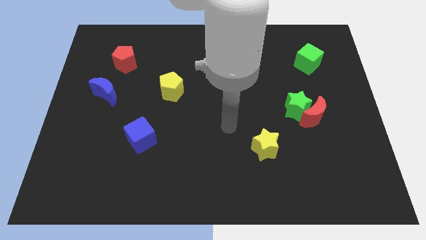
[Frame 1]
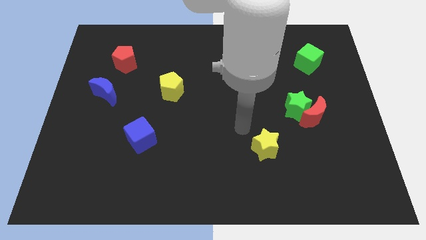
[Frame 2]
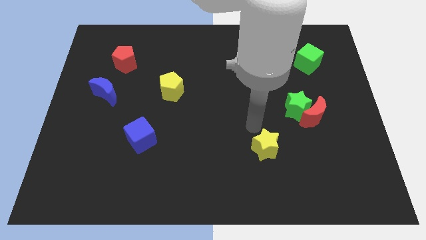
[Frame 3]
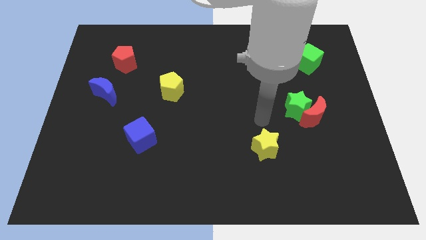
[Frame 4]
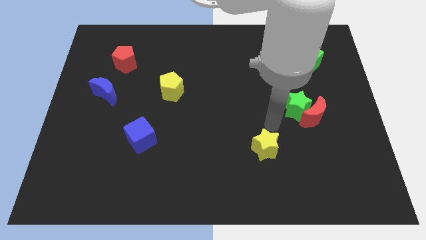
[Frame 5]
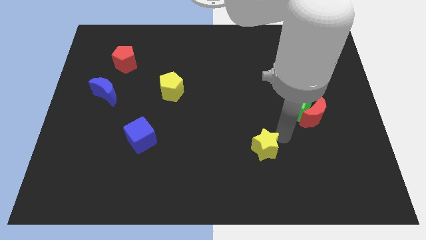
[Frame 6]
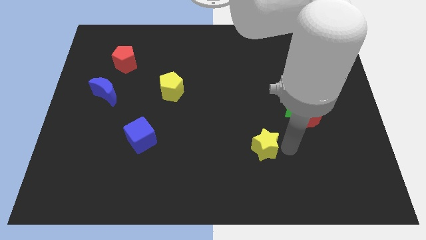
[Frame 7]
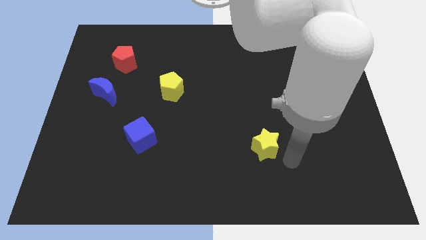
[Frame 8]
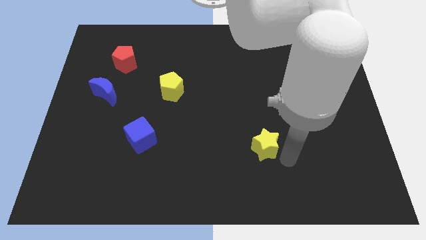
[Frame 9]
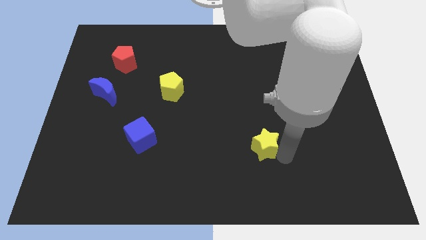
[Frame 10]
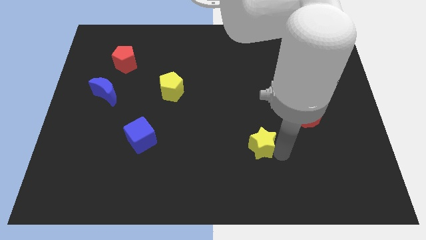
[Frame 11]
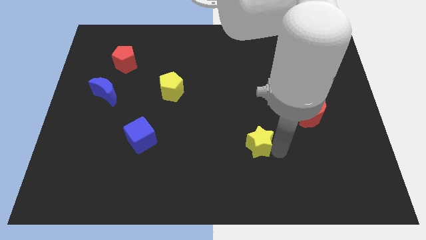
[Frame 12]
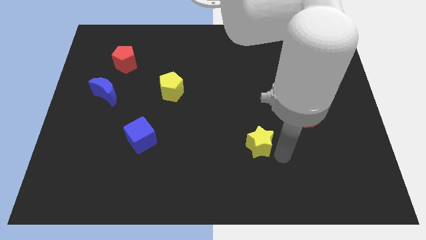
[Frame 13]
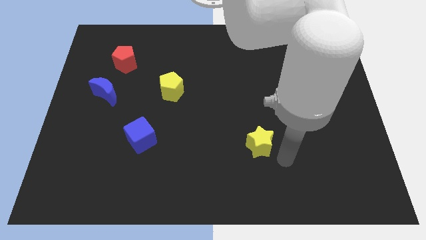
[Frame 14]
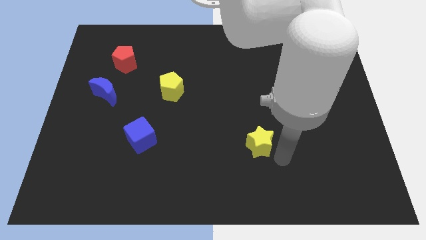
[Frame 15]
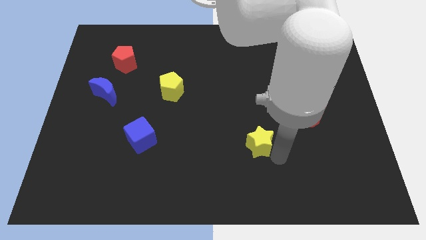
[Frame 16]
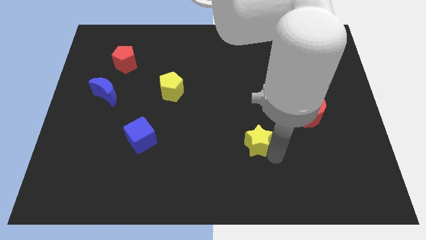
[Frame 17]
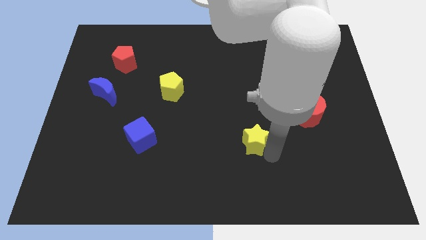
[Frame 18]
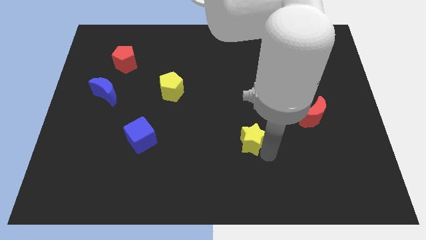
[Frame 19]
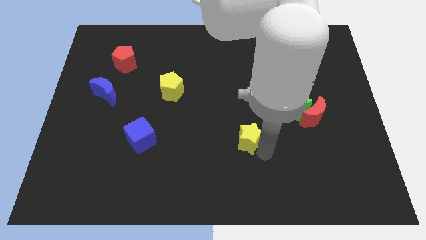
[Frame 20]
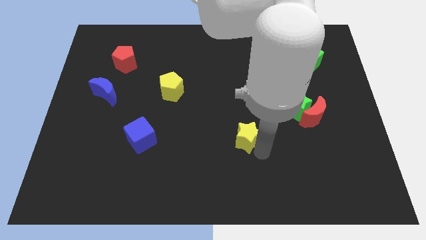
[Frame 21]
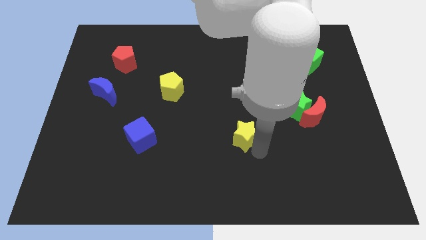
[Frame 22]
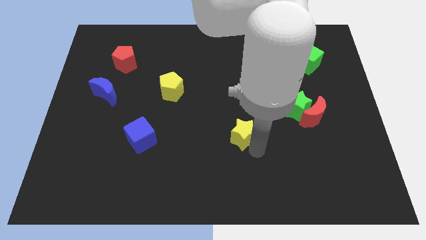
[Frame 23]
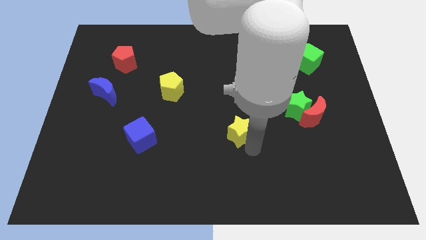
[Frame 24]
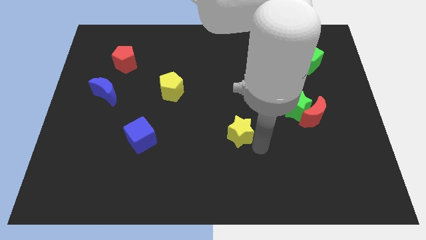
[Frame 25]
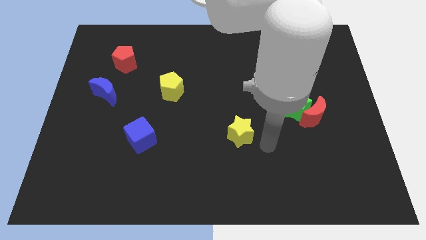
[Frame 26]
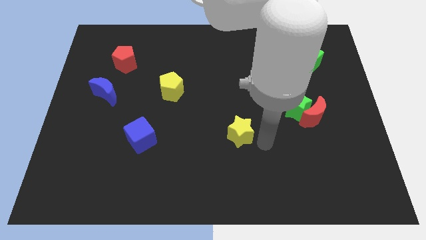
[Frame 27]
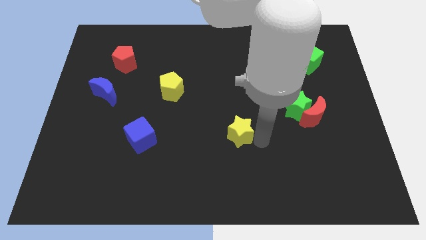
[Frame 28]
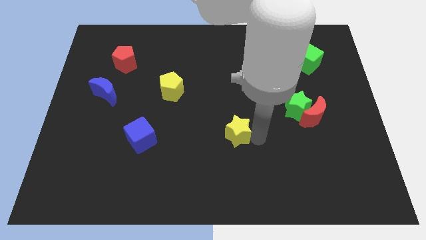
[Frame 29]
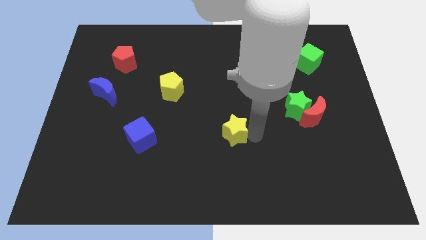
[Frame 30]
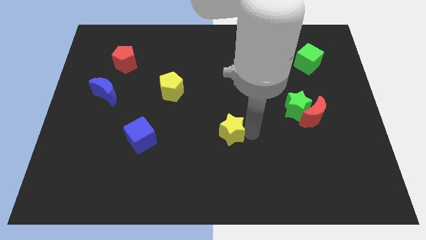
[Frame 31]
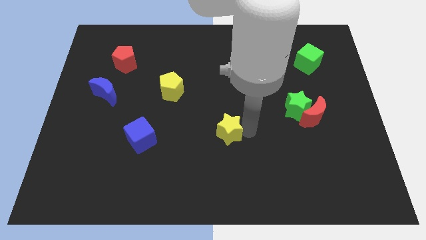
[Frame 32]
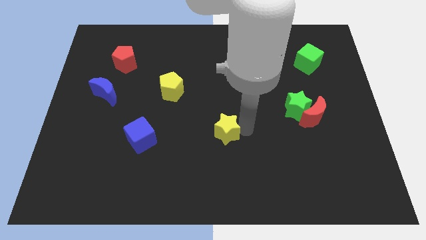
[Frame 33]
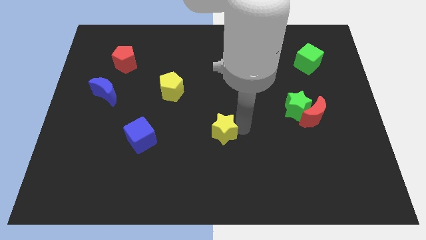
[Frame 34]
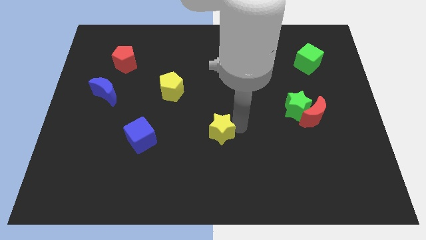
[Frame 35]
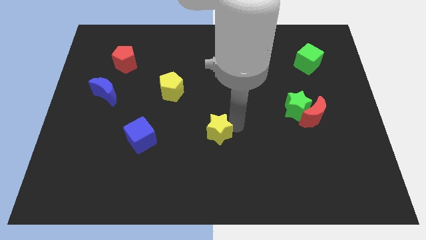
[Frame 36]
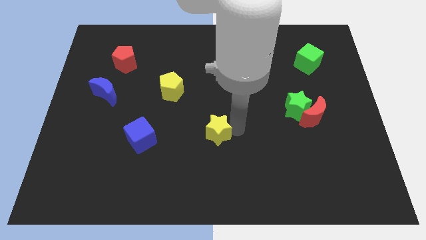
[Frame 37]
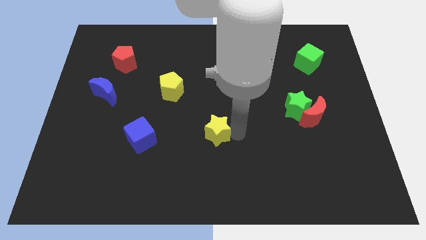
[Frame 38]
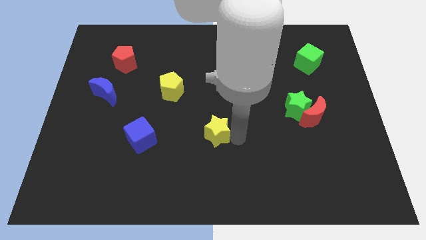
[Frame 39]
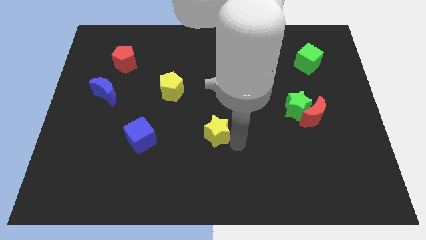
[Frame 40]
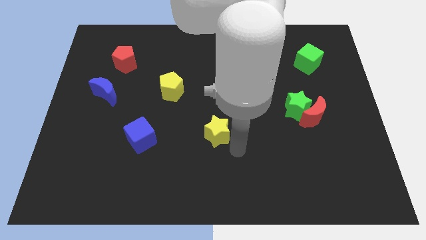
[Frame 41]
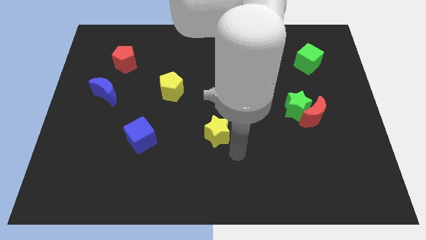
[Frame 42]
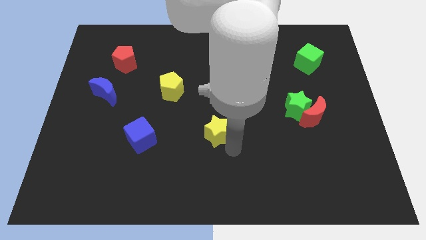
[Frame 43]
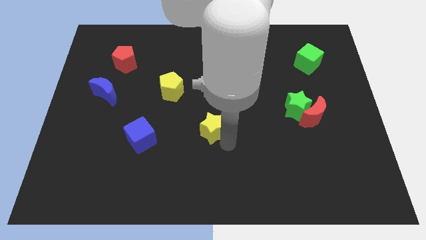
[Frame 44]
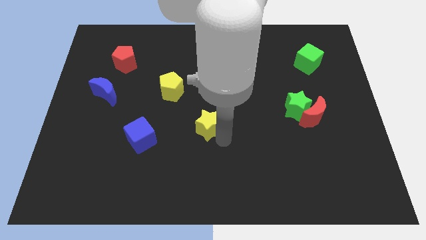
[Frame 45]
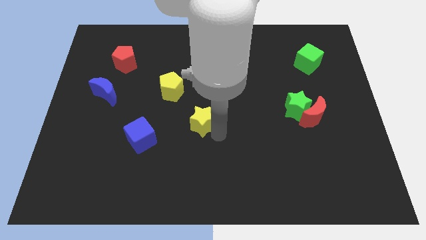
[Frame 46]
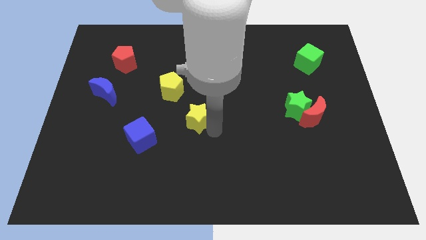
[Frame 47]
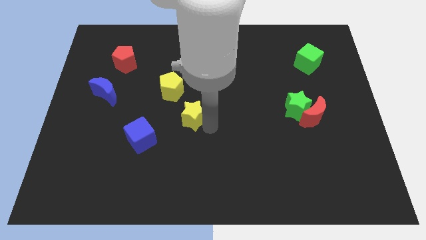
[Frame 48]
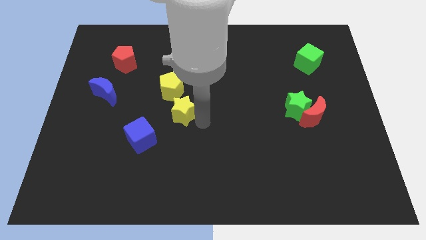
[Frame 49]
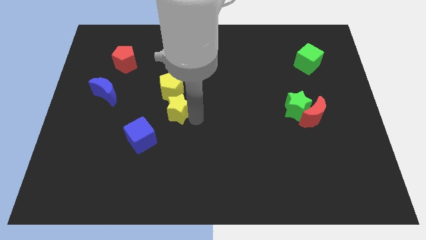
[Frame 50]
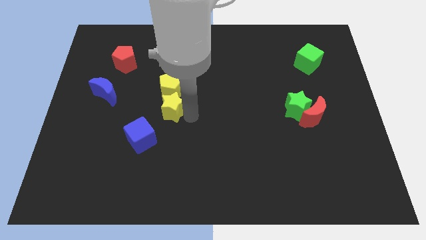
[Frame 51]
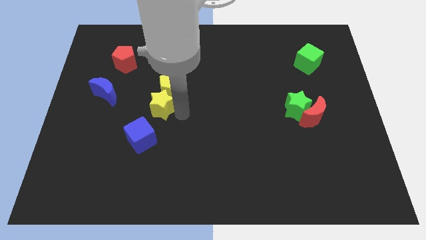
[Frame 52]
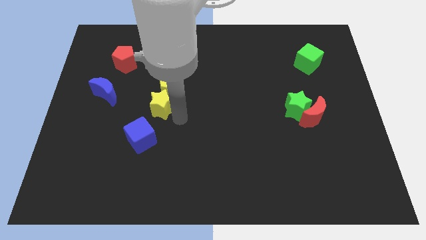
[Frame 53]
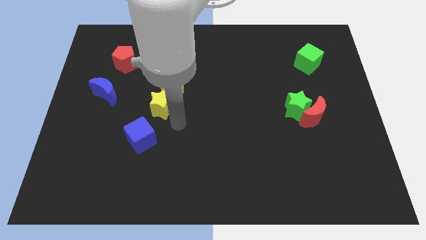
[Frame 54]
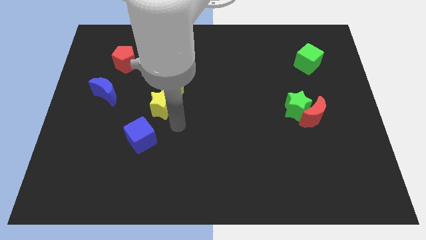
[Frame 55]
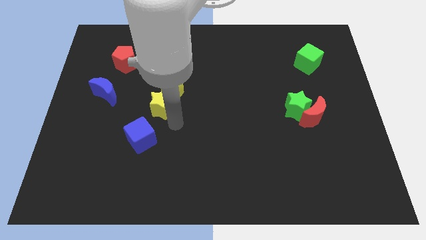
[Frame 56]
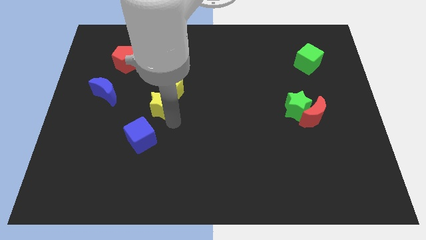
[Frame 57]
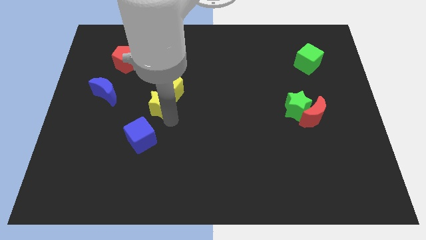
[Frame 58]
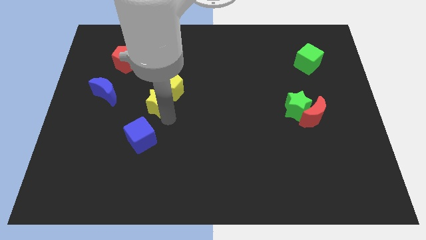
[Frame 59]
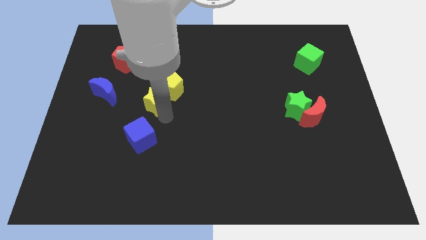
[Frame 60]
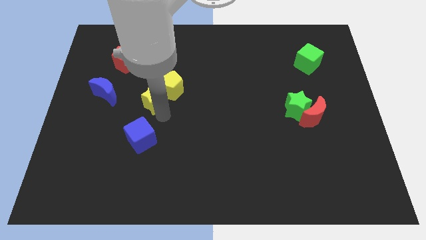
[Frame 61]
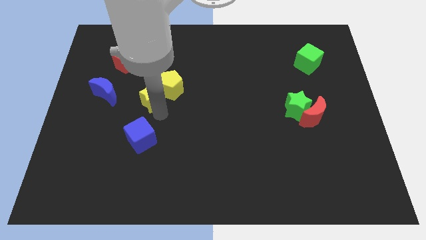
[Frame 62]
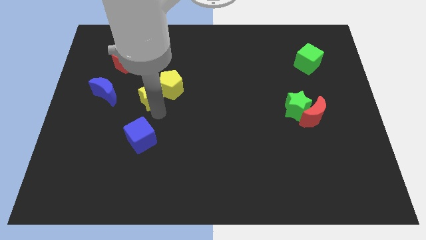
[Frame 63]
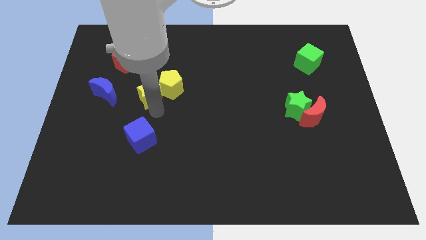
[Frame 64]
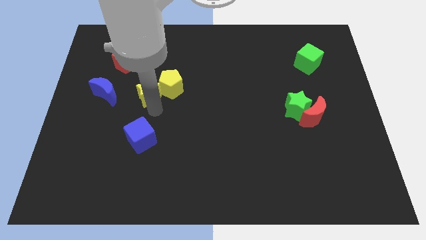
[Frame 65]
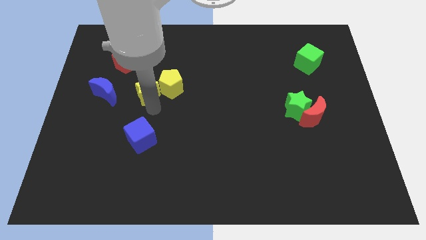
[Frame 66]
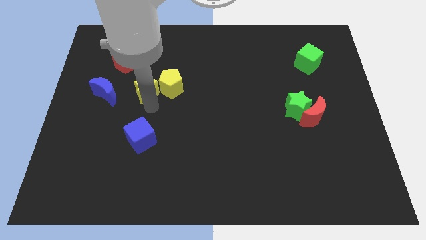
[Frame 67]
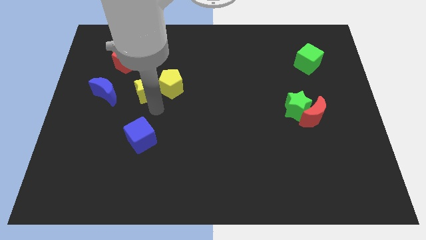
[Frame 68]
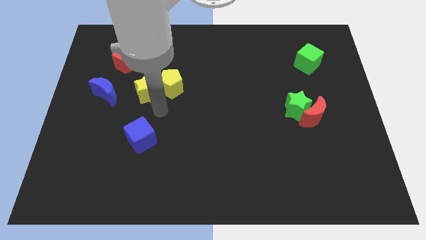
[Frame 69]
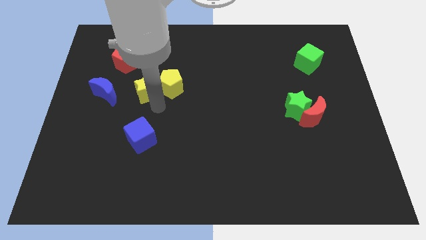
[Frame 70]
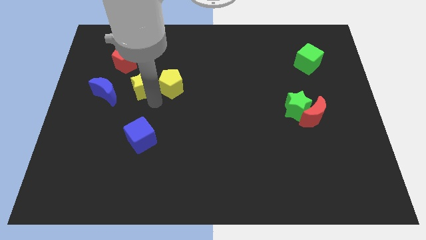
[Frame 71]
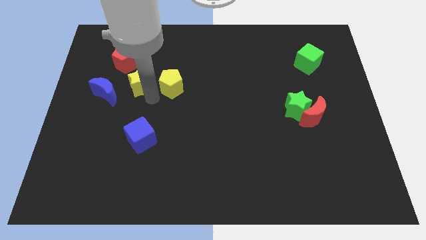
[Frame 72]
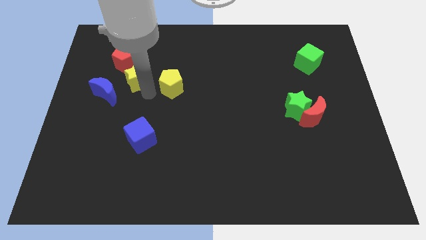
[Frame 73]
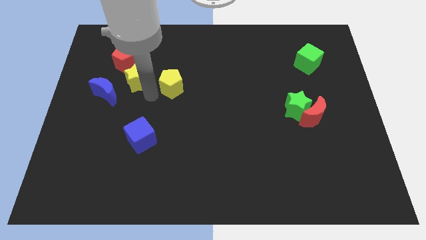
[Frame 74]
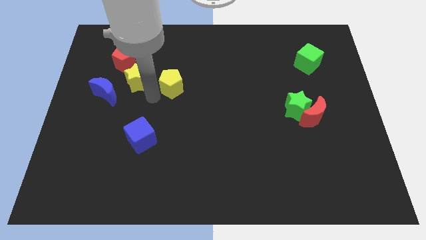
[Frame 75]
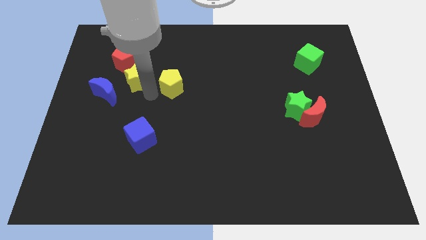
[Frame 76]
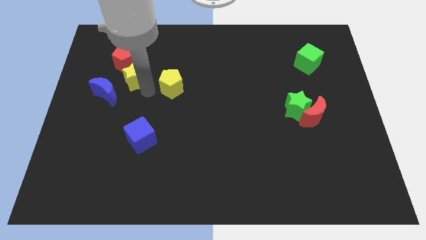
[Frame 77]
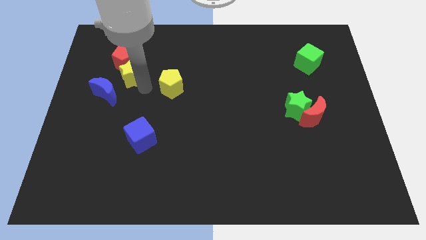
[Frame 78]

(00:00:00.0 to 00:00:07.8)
put the yellow star towards the red pentagon
